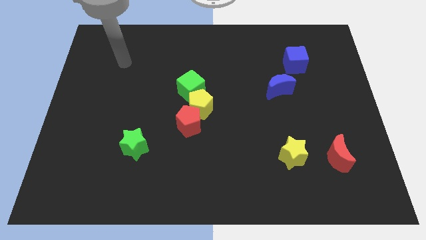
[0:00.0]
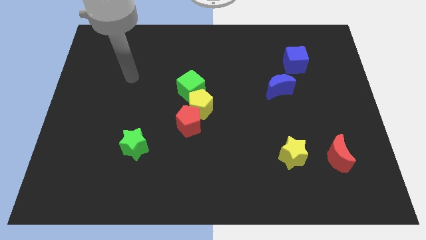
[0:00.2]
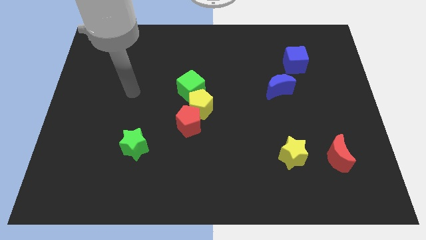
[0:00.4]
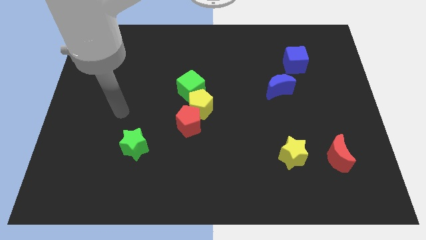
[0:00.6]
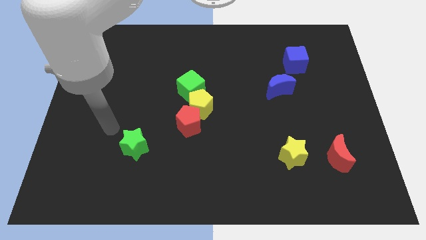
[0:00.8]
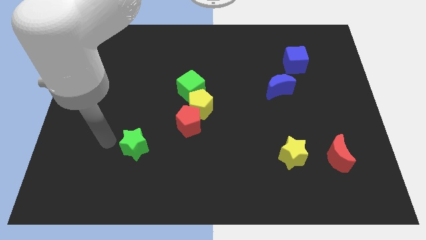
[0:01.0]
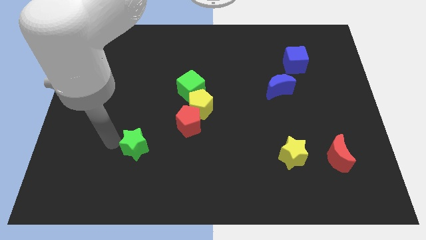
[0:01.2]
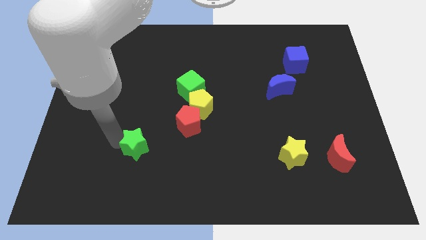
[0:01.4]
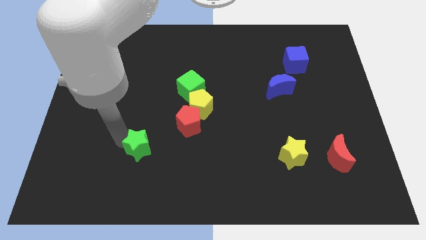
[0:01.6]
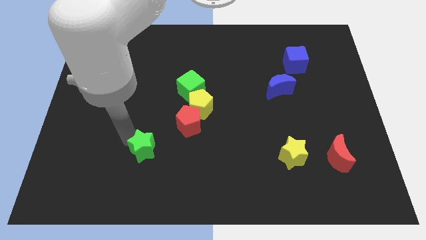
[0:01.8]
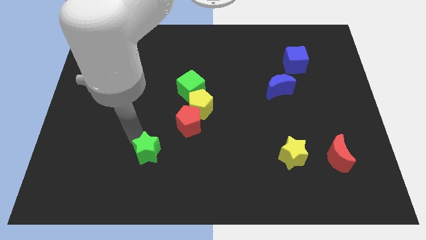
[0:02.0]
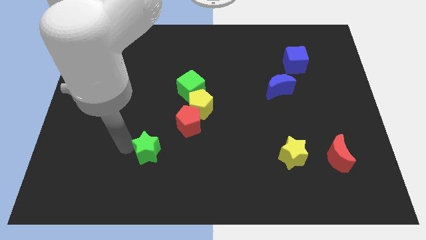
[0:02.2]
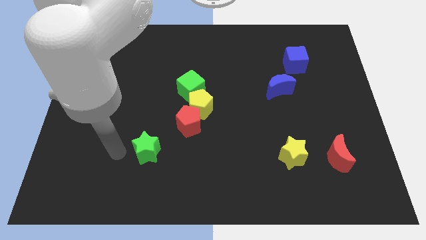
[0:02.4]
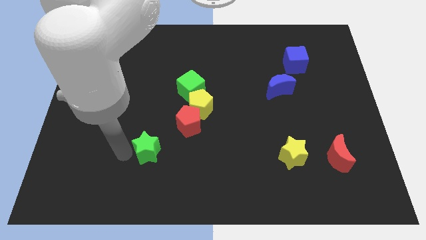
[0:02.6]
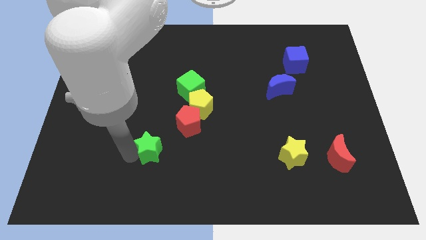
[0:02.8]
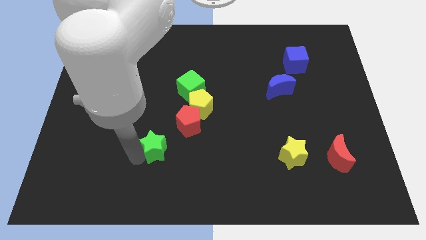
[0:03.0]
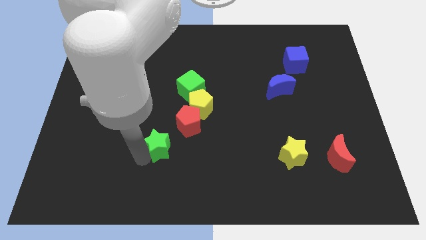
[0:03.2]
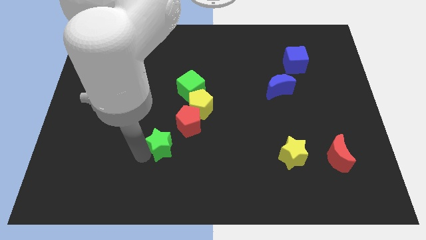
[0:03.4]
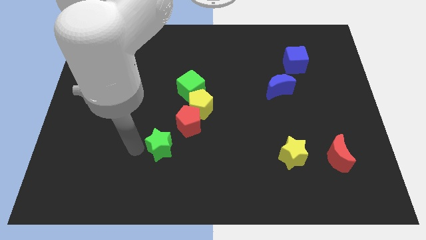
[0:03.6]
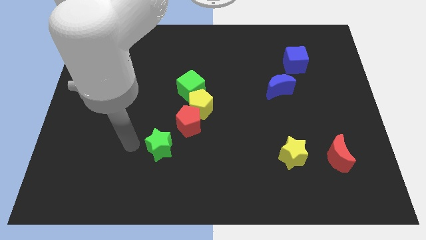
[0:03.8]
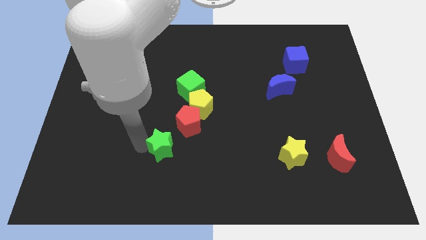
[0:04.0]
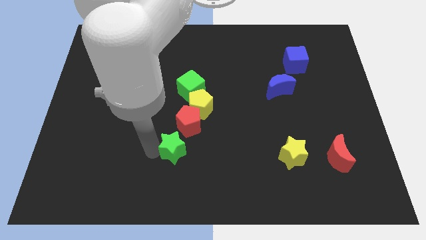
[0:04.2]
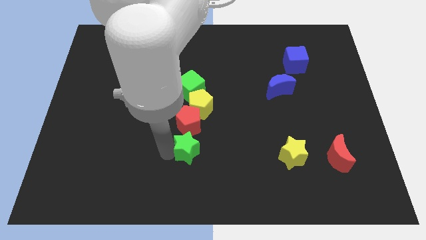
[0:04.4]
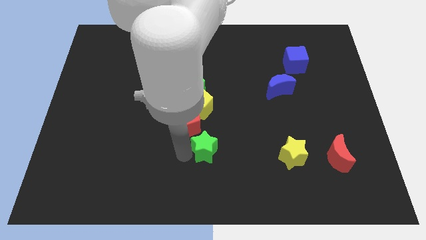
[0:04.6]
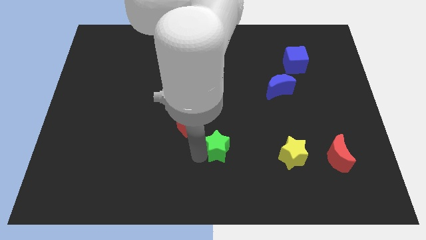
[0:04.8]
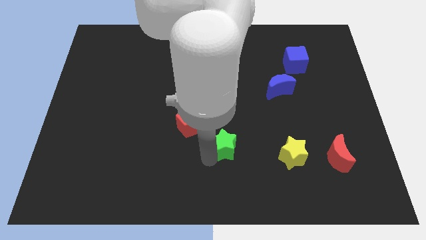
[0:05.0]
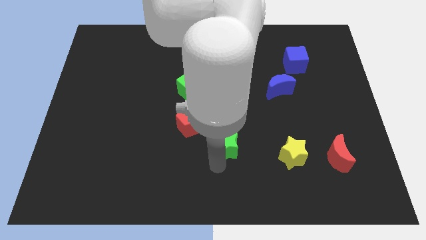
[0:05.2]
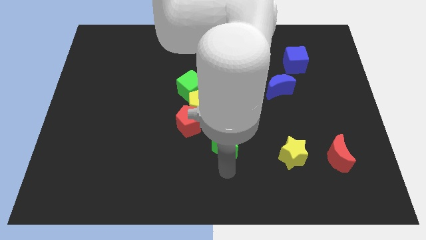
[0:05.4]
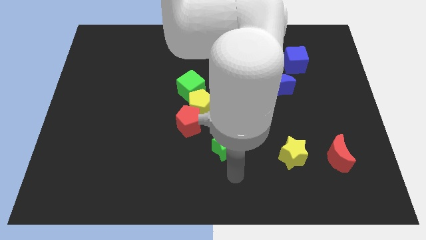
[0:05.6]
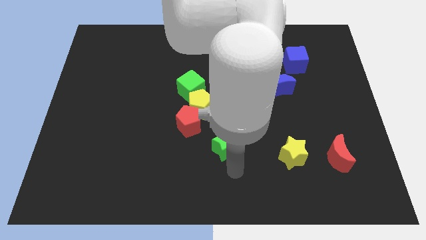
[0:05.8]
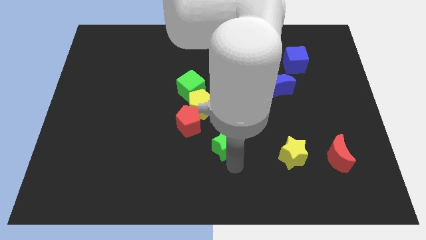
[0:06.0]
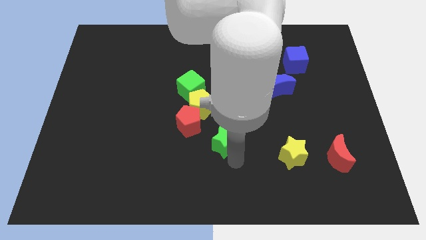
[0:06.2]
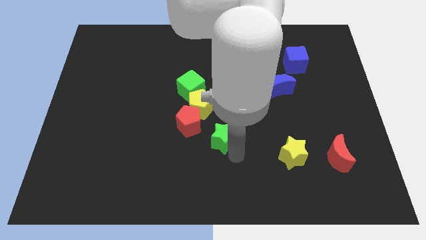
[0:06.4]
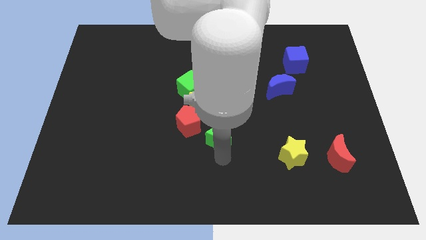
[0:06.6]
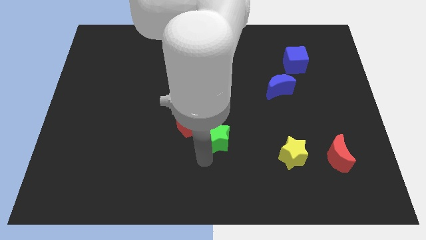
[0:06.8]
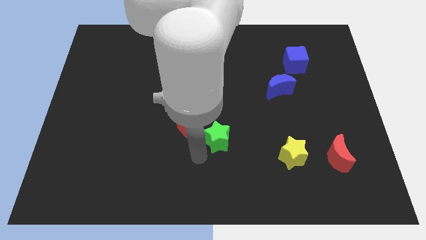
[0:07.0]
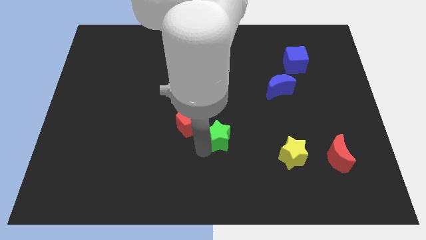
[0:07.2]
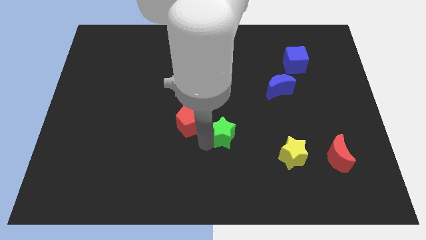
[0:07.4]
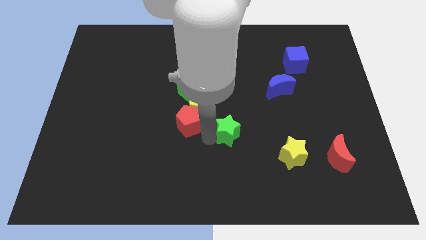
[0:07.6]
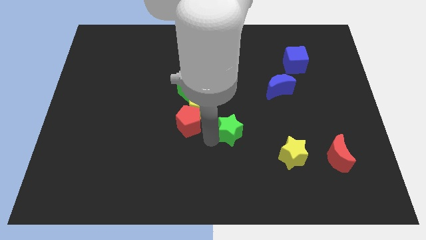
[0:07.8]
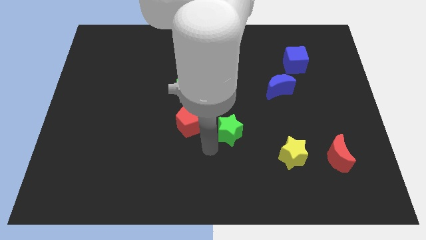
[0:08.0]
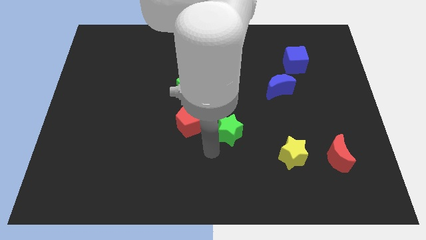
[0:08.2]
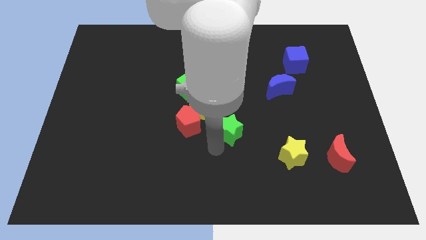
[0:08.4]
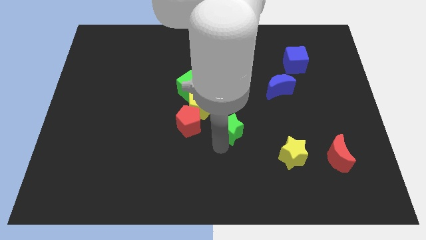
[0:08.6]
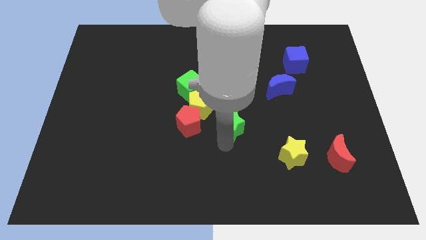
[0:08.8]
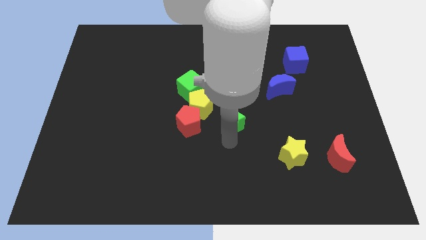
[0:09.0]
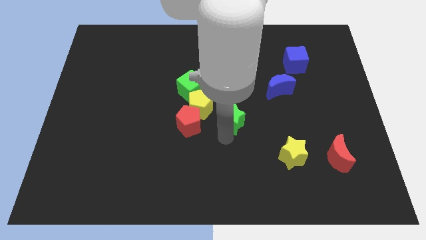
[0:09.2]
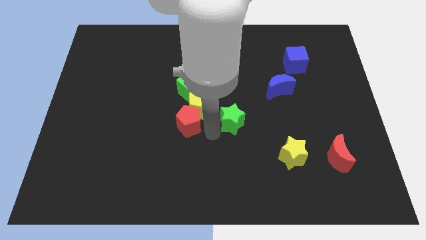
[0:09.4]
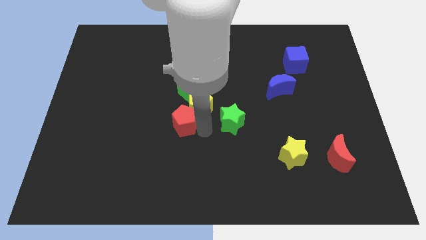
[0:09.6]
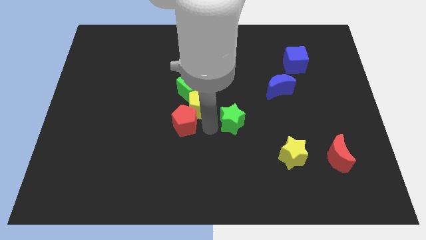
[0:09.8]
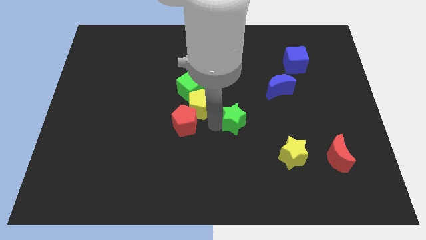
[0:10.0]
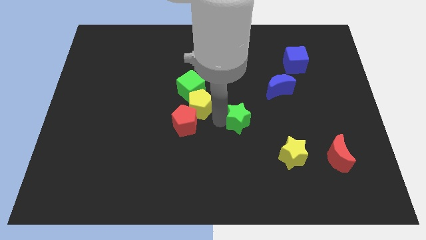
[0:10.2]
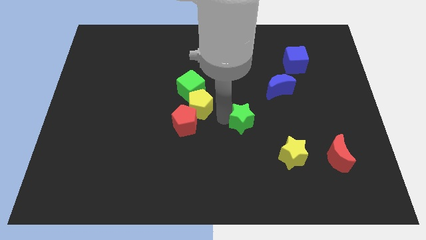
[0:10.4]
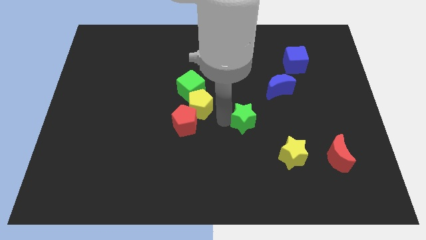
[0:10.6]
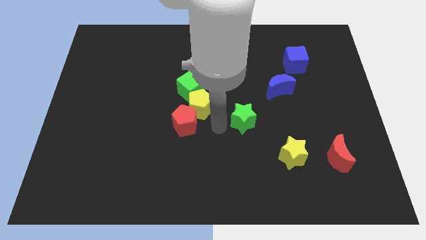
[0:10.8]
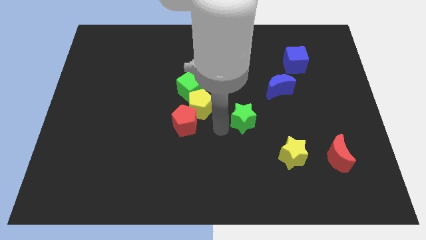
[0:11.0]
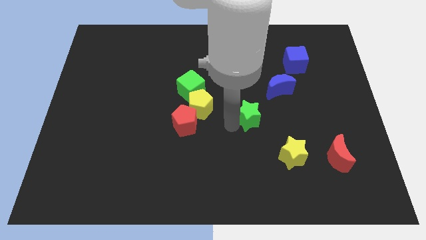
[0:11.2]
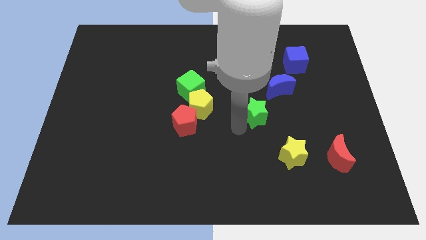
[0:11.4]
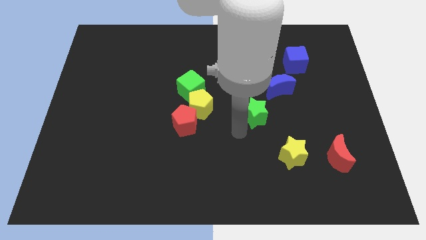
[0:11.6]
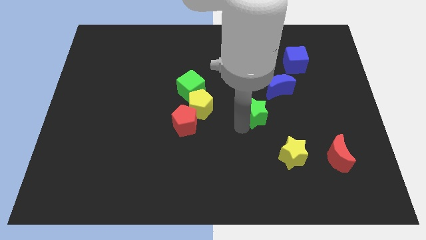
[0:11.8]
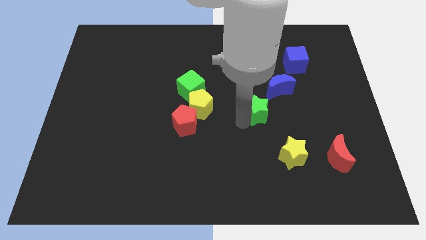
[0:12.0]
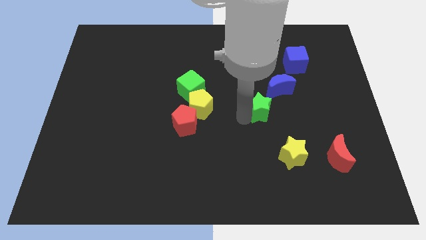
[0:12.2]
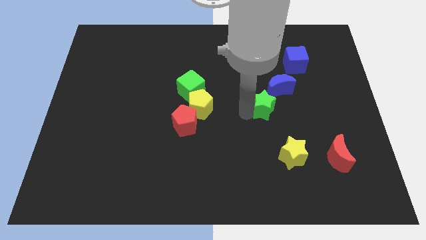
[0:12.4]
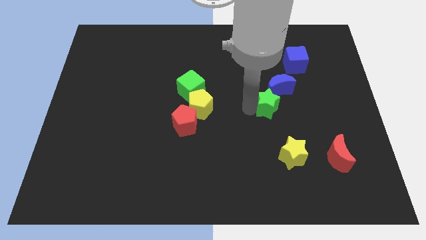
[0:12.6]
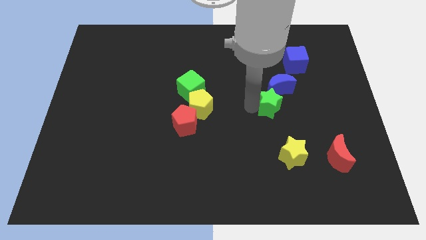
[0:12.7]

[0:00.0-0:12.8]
move the green star close to the blue moon
